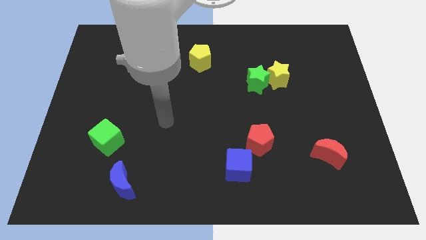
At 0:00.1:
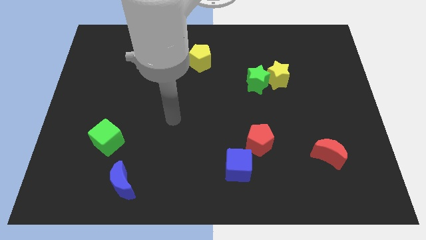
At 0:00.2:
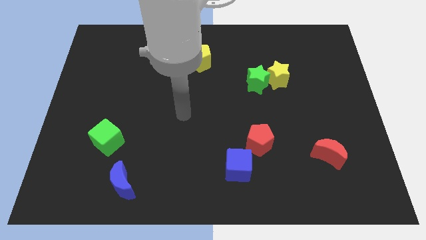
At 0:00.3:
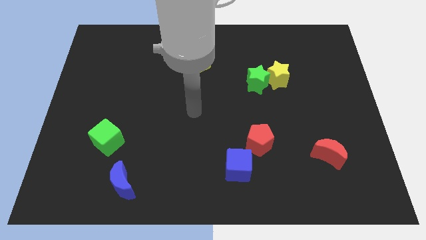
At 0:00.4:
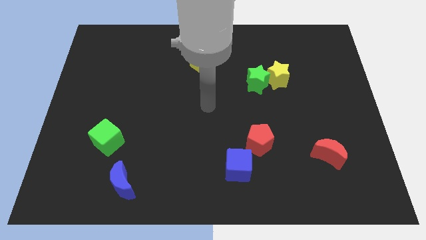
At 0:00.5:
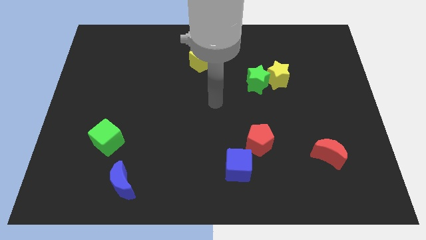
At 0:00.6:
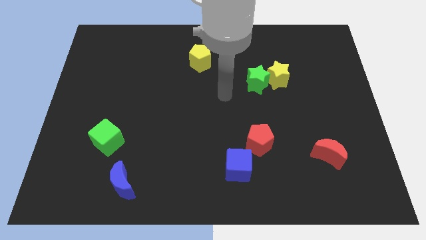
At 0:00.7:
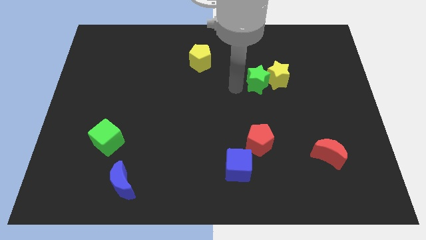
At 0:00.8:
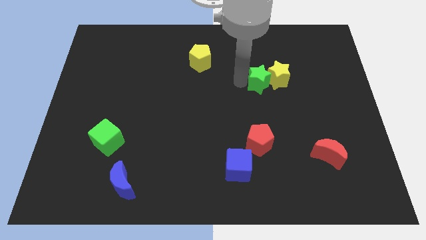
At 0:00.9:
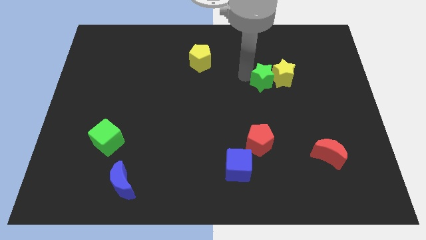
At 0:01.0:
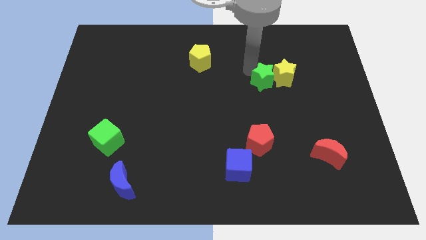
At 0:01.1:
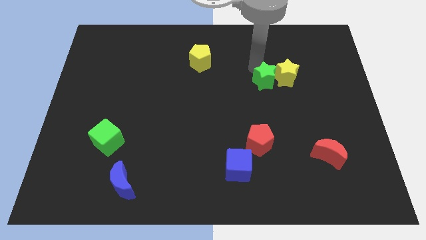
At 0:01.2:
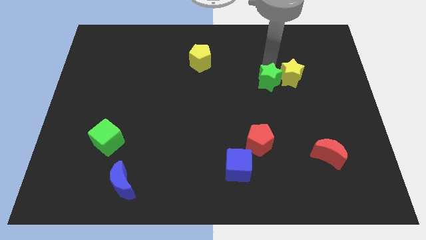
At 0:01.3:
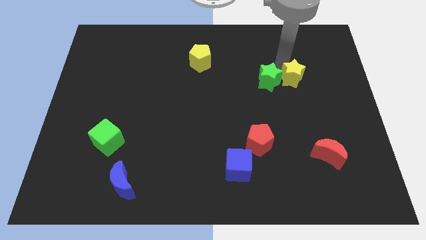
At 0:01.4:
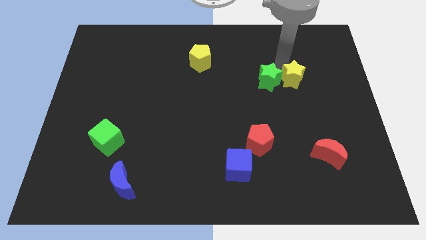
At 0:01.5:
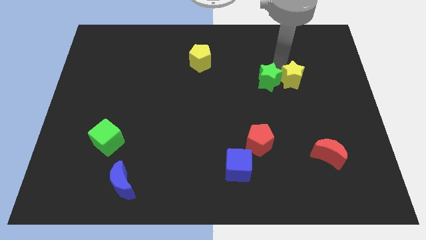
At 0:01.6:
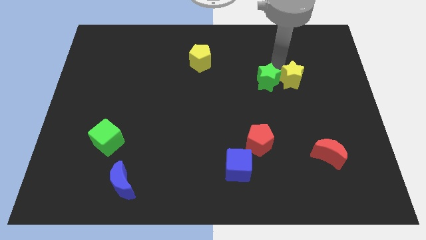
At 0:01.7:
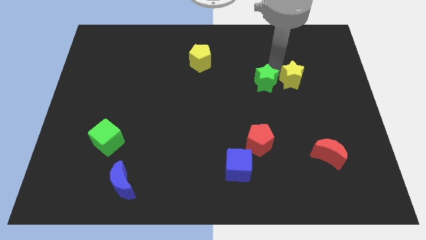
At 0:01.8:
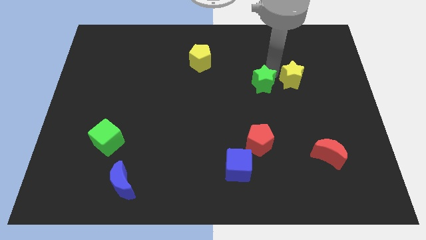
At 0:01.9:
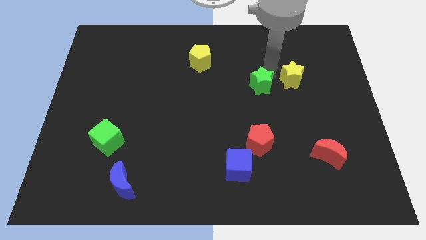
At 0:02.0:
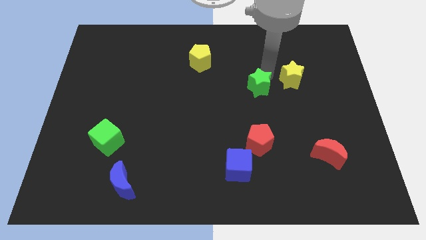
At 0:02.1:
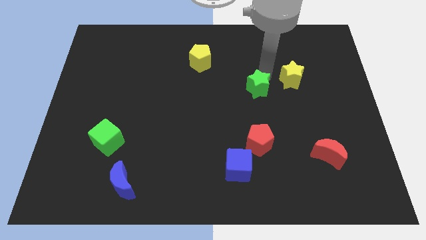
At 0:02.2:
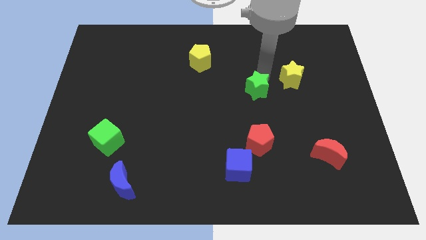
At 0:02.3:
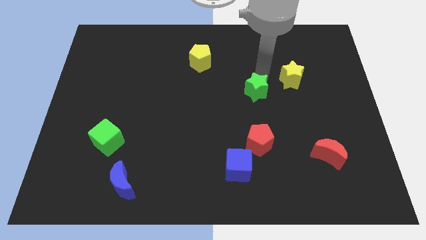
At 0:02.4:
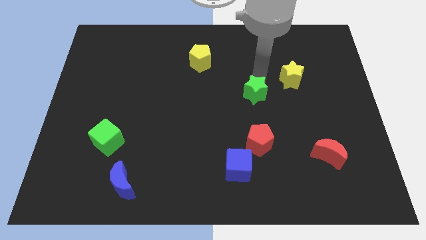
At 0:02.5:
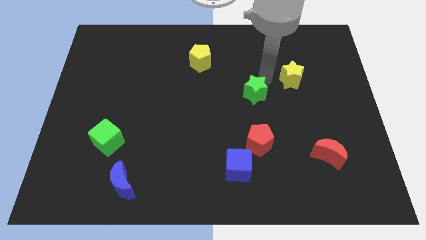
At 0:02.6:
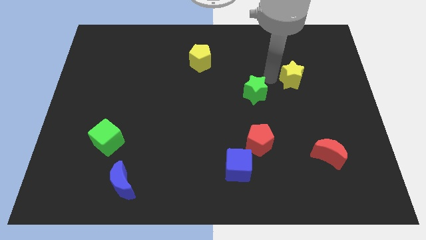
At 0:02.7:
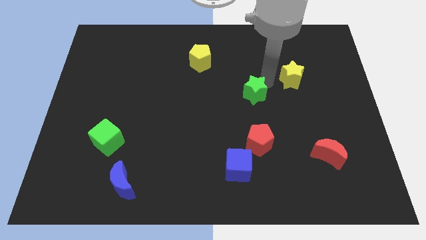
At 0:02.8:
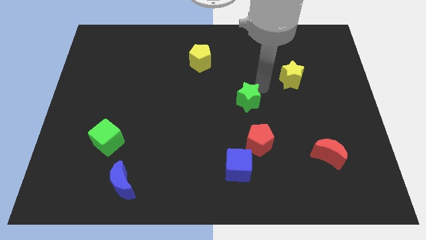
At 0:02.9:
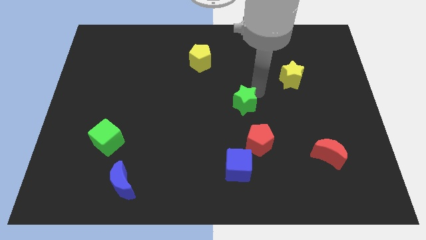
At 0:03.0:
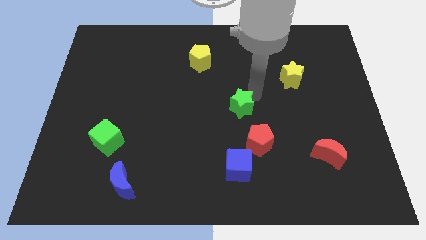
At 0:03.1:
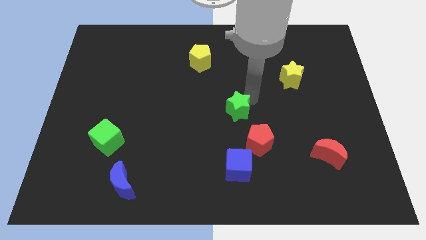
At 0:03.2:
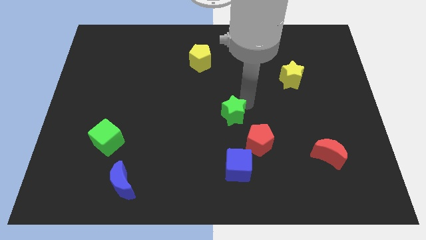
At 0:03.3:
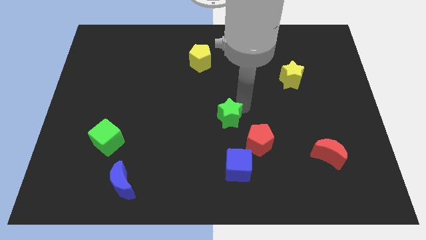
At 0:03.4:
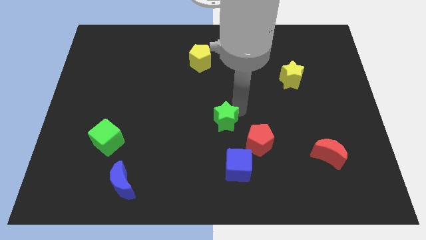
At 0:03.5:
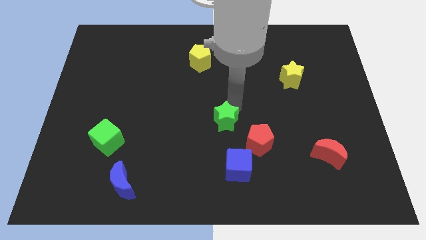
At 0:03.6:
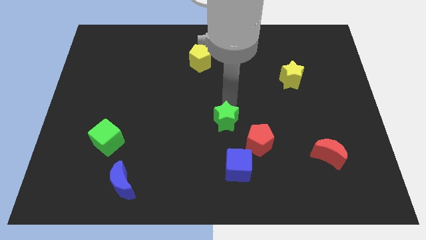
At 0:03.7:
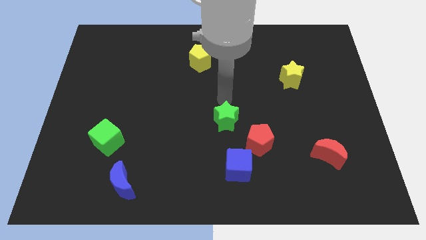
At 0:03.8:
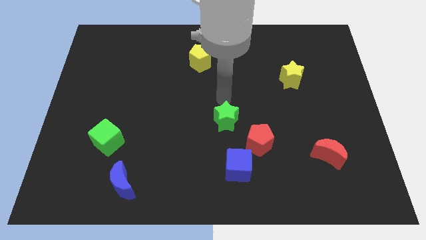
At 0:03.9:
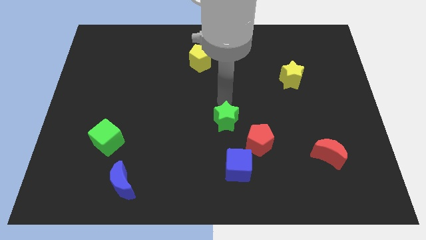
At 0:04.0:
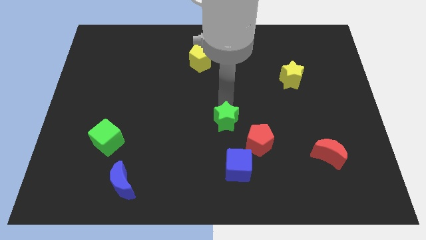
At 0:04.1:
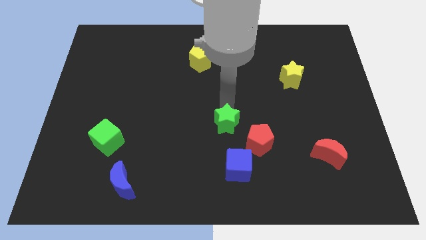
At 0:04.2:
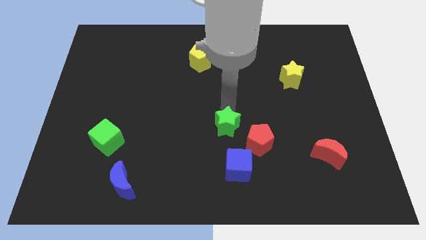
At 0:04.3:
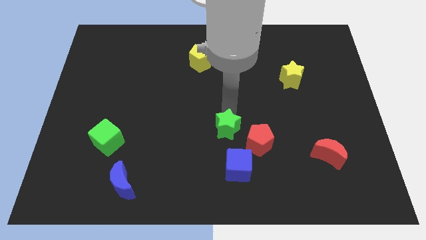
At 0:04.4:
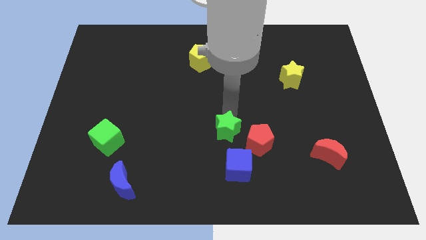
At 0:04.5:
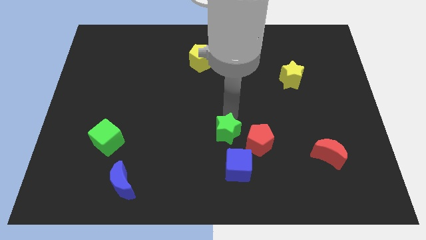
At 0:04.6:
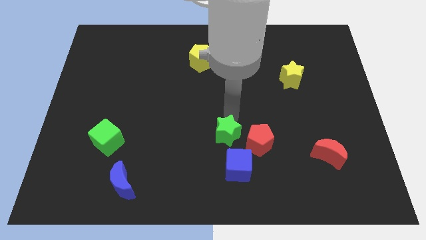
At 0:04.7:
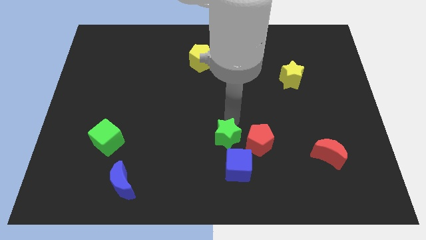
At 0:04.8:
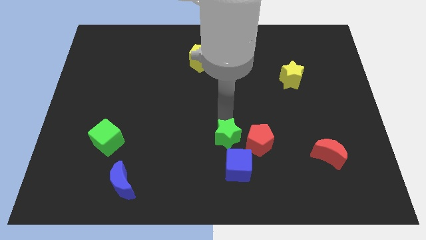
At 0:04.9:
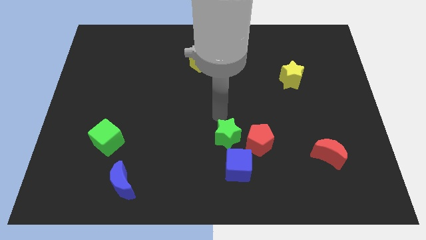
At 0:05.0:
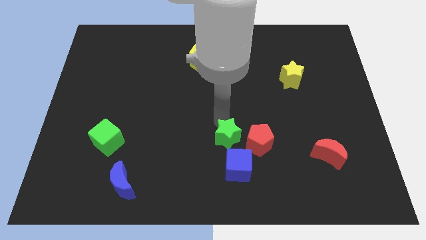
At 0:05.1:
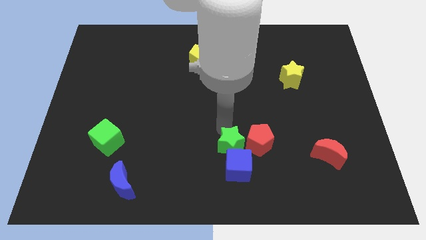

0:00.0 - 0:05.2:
slide the green star next to the blue cube

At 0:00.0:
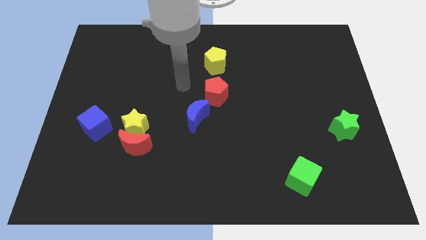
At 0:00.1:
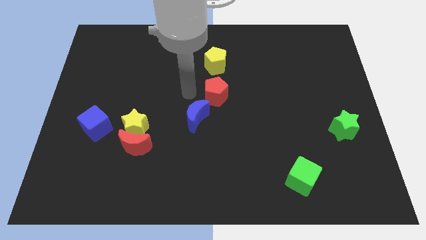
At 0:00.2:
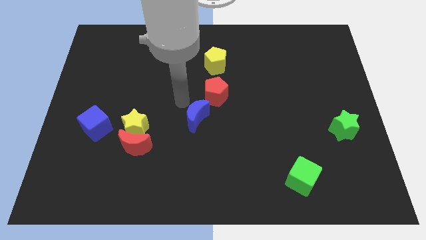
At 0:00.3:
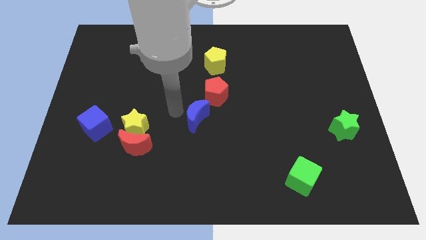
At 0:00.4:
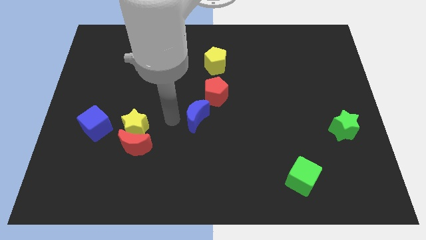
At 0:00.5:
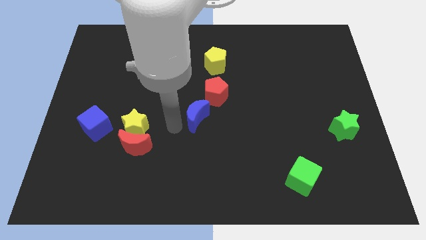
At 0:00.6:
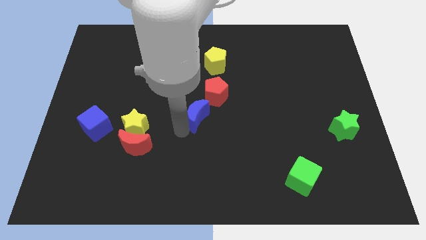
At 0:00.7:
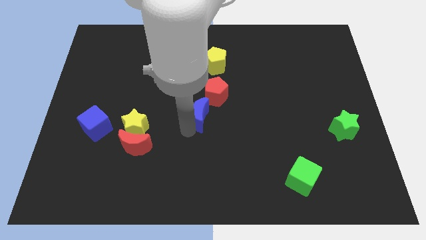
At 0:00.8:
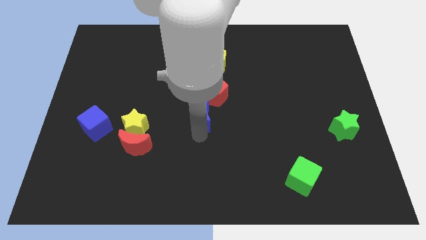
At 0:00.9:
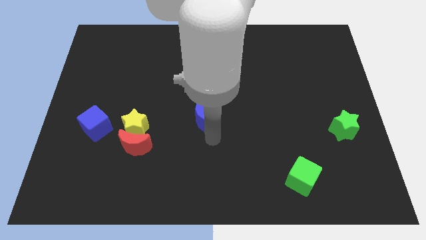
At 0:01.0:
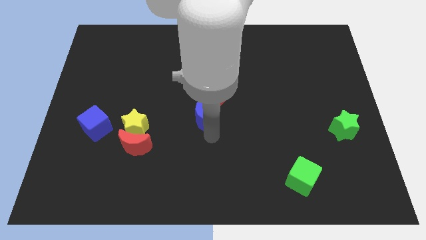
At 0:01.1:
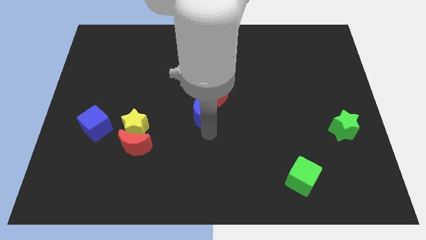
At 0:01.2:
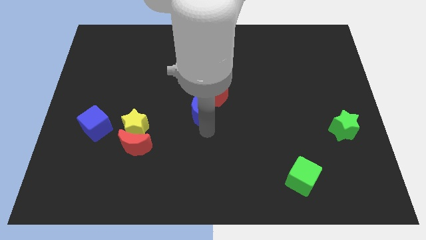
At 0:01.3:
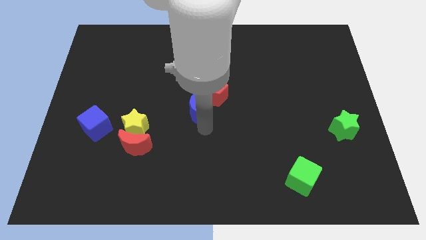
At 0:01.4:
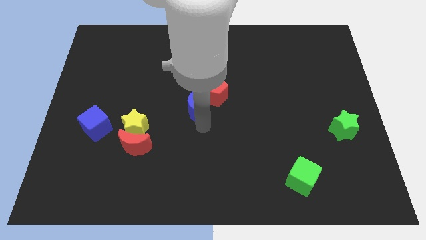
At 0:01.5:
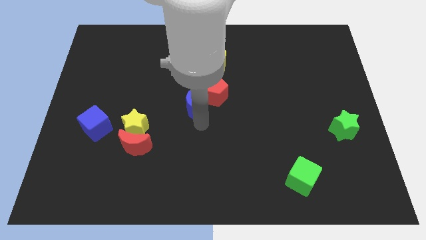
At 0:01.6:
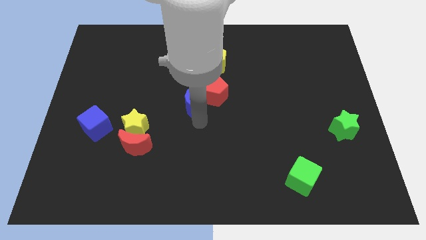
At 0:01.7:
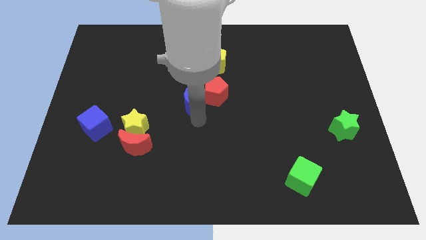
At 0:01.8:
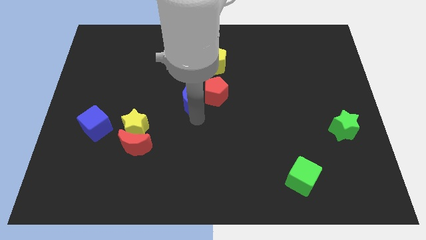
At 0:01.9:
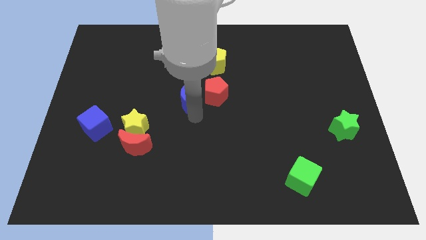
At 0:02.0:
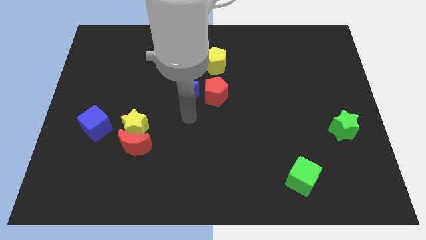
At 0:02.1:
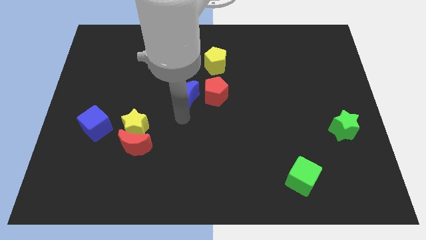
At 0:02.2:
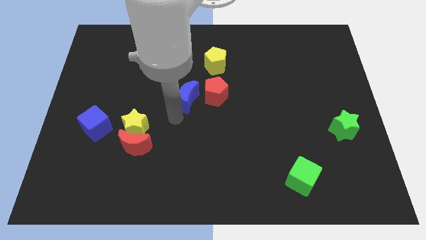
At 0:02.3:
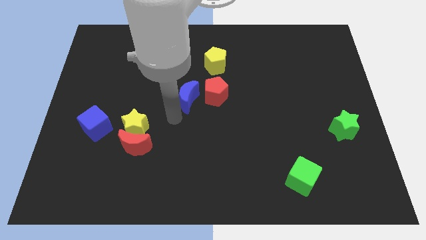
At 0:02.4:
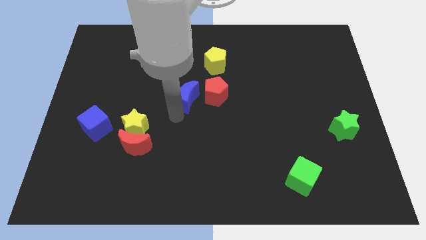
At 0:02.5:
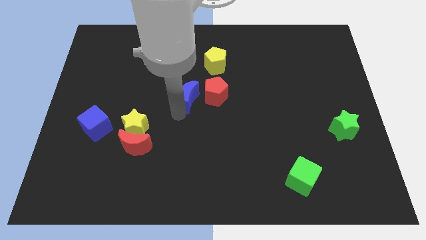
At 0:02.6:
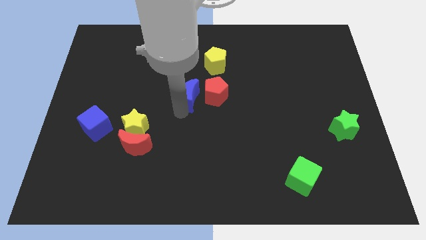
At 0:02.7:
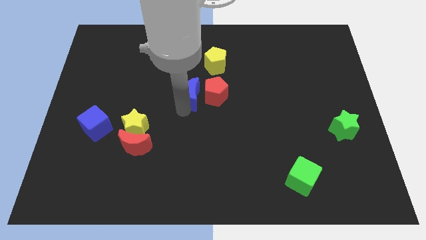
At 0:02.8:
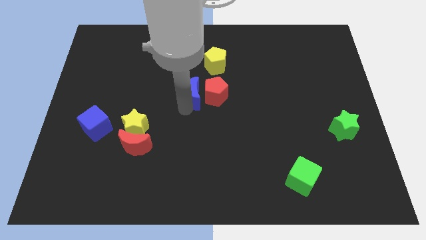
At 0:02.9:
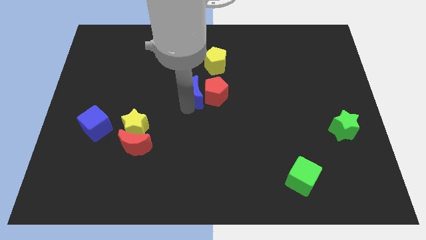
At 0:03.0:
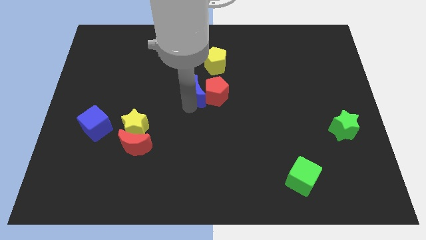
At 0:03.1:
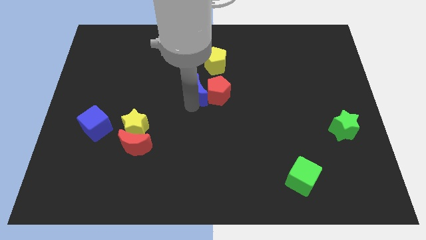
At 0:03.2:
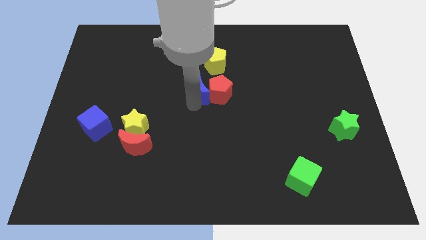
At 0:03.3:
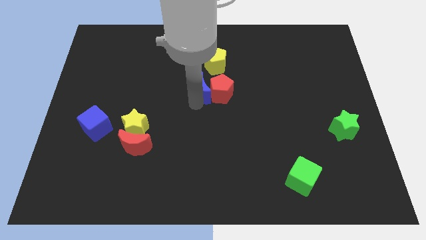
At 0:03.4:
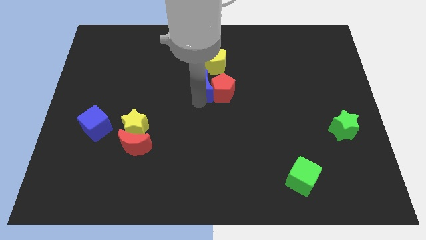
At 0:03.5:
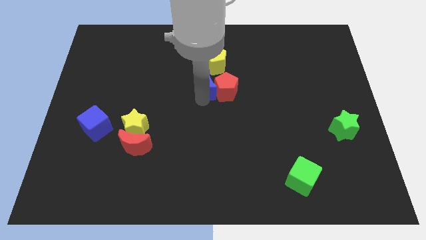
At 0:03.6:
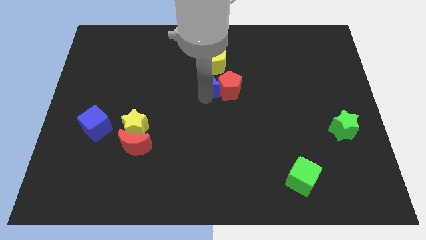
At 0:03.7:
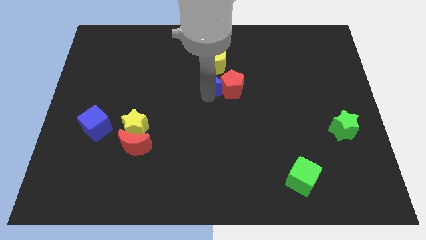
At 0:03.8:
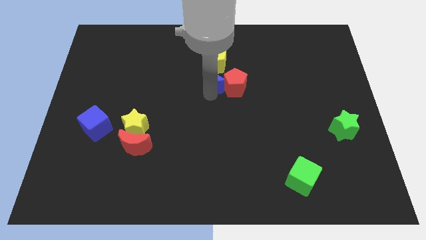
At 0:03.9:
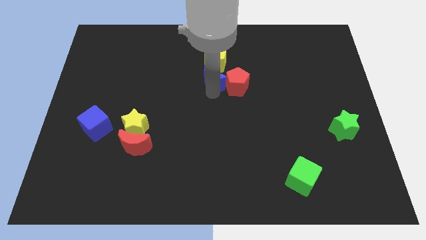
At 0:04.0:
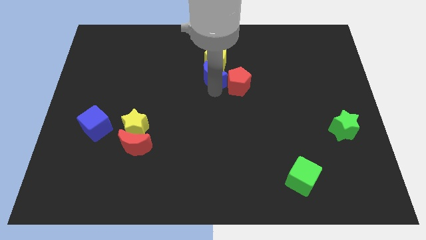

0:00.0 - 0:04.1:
push the blue moon close to the yellow pentagon
